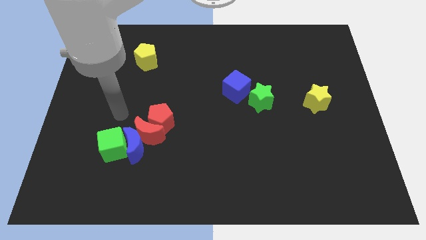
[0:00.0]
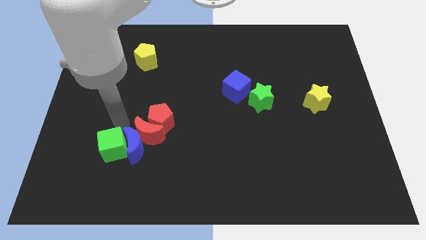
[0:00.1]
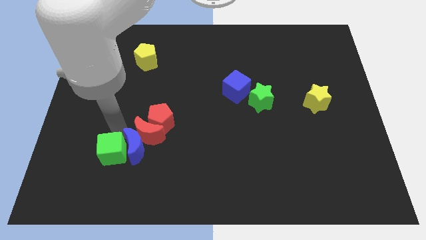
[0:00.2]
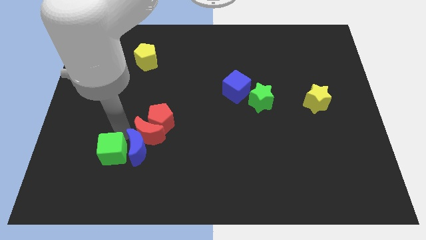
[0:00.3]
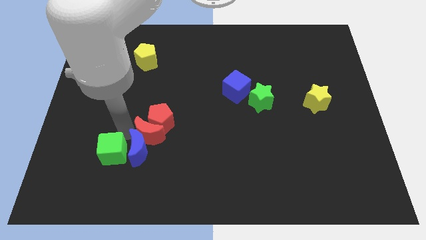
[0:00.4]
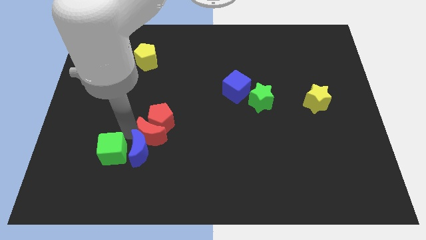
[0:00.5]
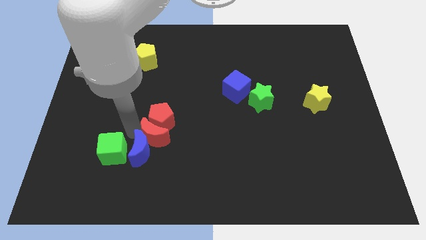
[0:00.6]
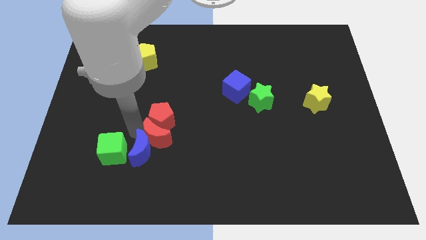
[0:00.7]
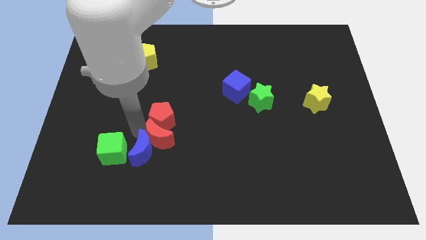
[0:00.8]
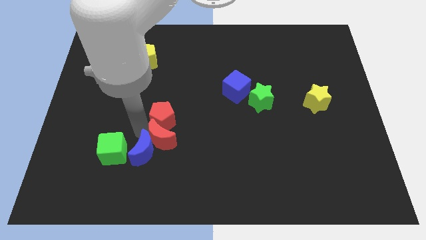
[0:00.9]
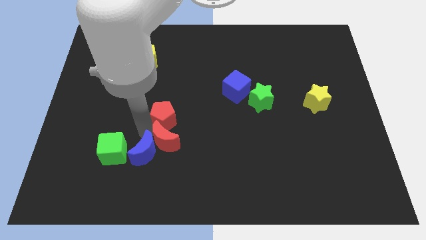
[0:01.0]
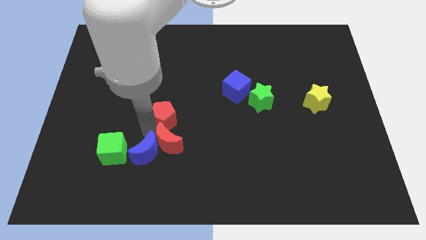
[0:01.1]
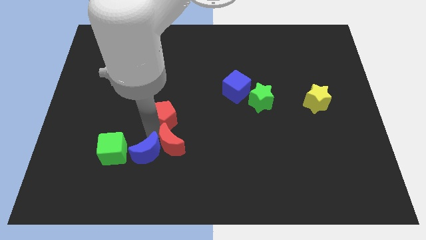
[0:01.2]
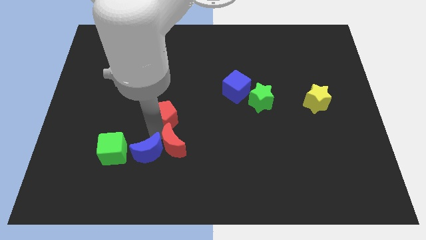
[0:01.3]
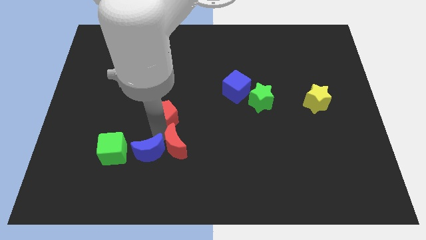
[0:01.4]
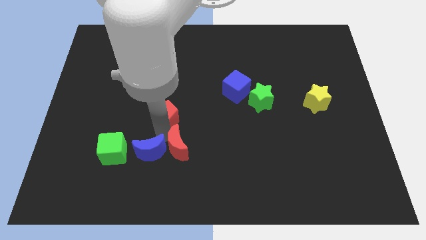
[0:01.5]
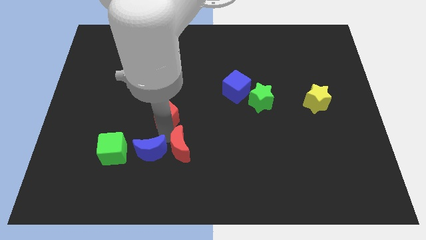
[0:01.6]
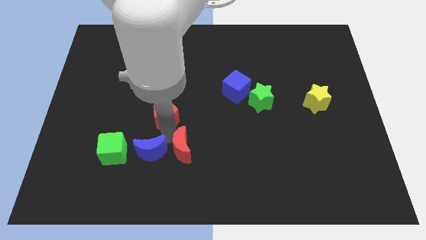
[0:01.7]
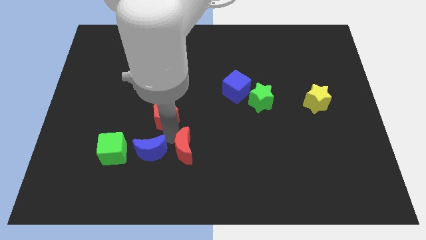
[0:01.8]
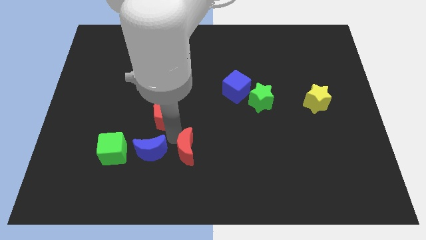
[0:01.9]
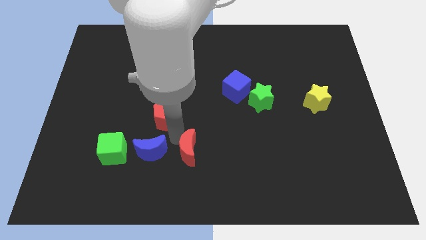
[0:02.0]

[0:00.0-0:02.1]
separate the red moon from the blue moon, red pentagon, and green cube

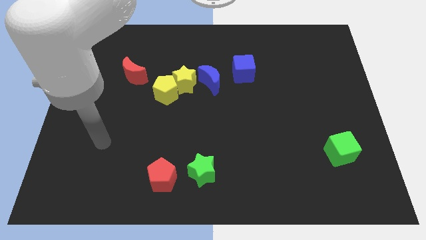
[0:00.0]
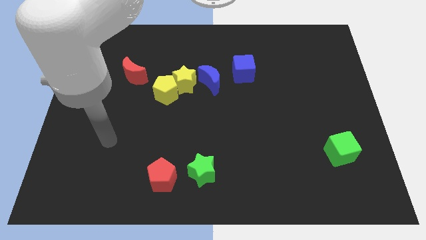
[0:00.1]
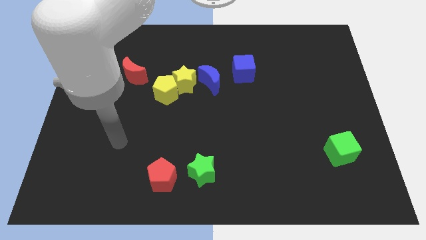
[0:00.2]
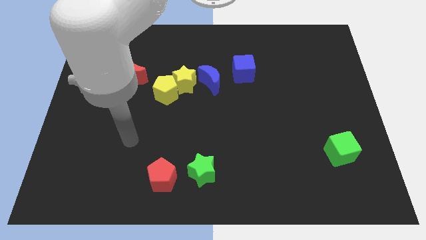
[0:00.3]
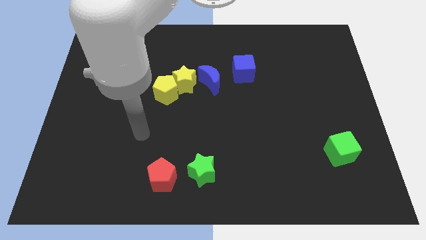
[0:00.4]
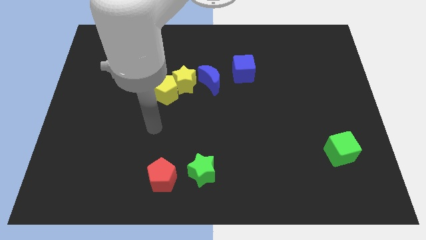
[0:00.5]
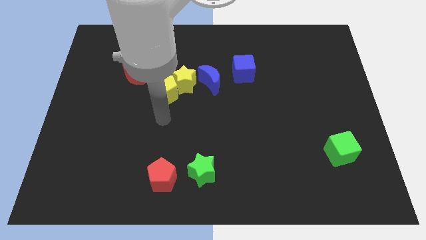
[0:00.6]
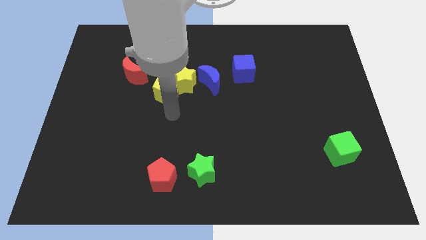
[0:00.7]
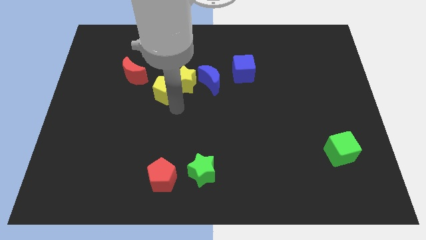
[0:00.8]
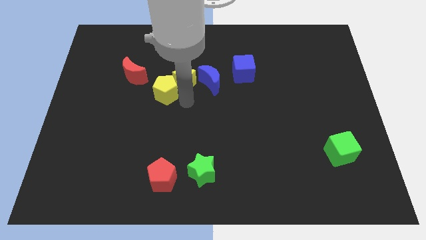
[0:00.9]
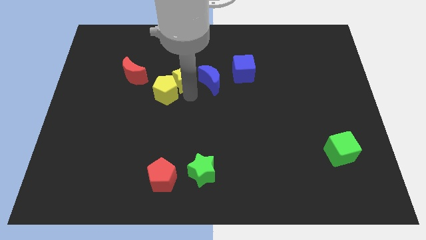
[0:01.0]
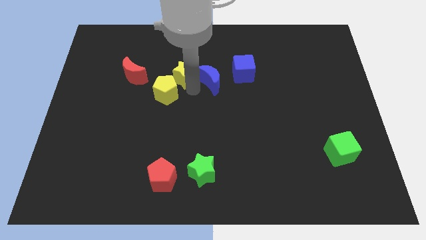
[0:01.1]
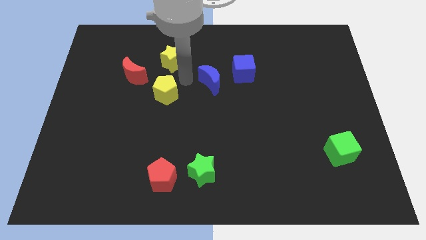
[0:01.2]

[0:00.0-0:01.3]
move the yellow pentagon away from the yellow star

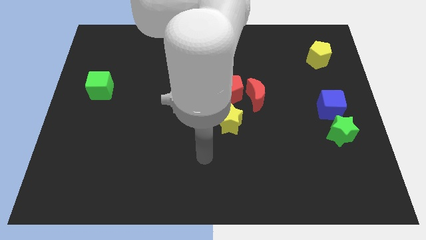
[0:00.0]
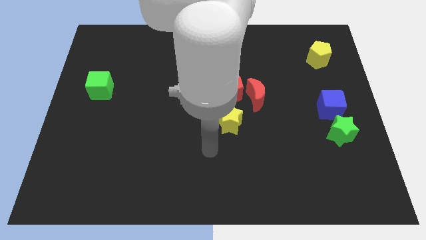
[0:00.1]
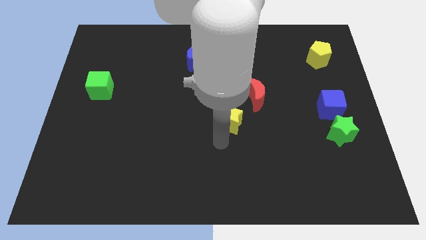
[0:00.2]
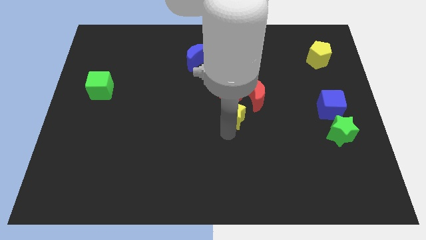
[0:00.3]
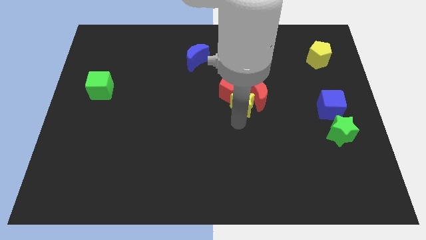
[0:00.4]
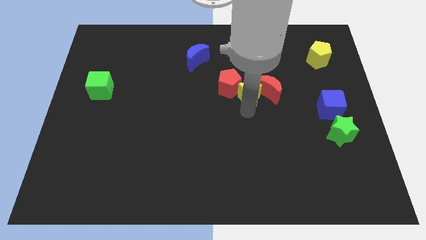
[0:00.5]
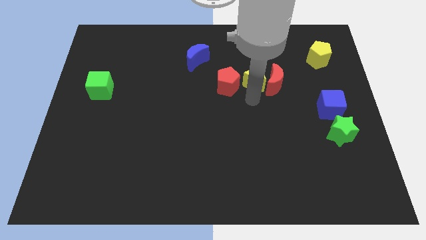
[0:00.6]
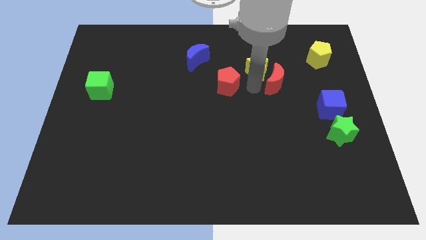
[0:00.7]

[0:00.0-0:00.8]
move the red pentagon away from the red moon and yellow star

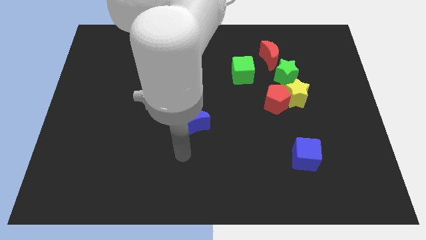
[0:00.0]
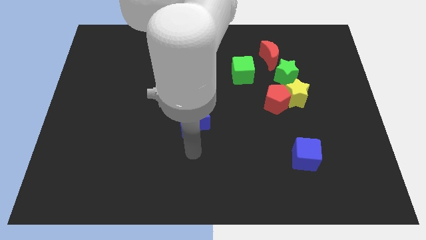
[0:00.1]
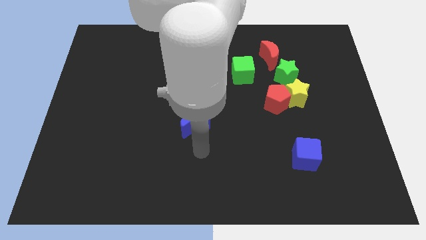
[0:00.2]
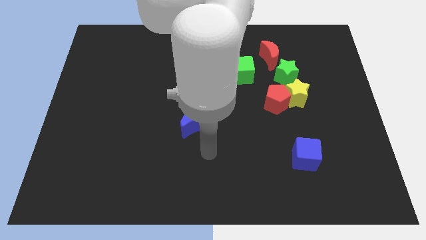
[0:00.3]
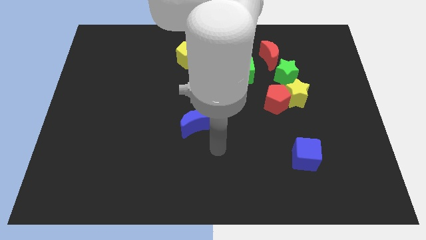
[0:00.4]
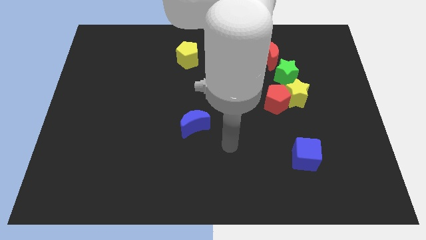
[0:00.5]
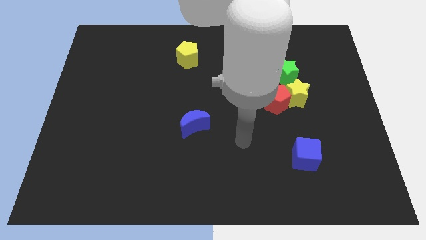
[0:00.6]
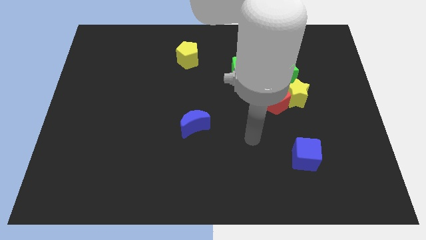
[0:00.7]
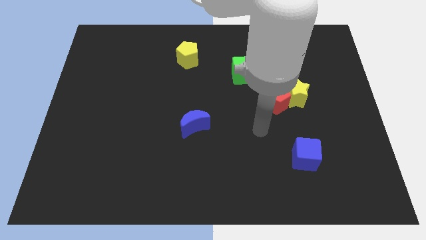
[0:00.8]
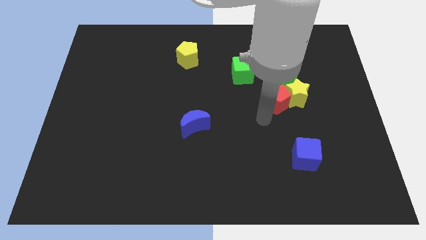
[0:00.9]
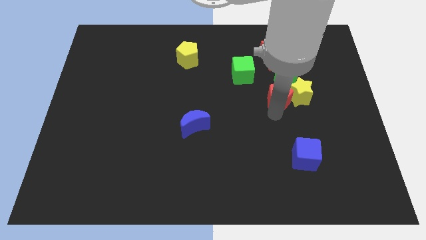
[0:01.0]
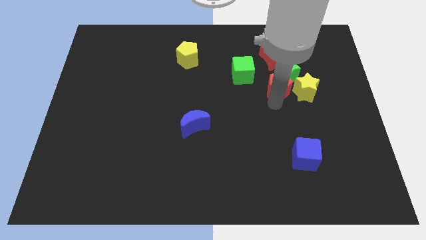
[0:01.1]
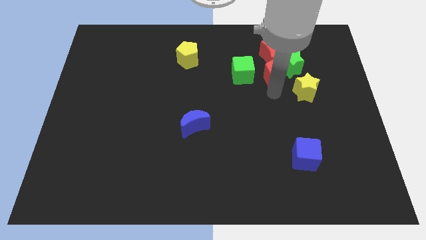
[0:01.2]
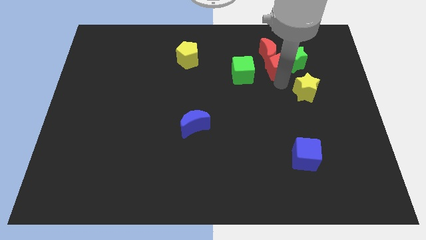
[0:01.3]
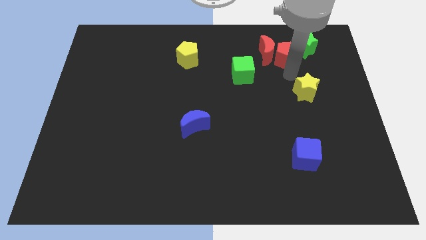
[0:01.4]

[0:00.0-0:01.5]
move the yellow star away from the red pentagon and green star

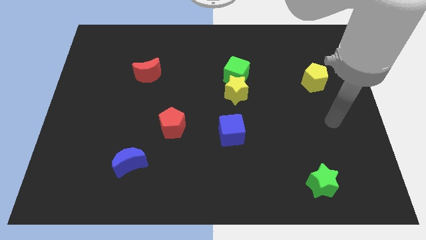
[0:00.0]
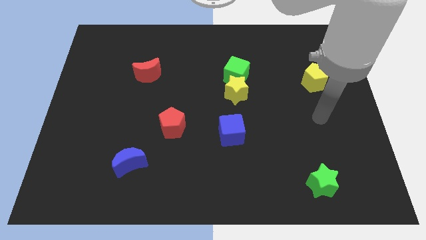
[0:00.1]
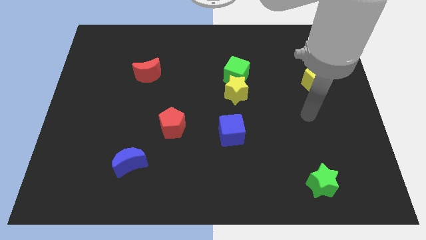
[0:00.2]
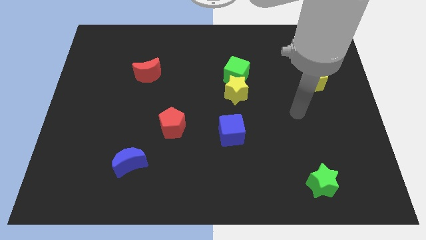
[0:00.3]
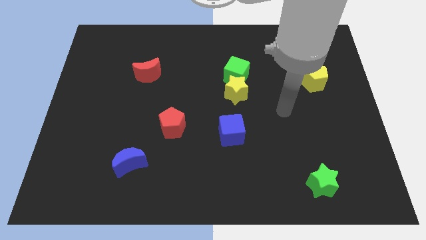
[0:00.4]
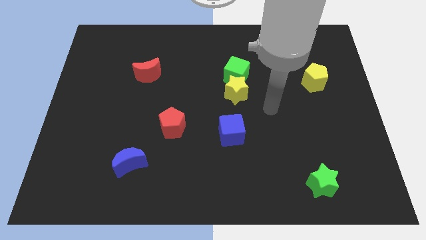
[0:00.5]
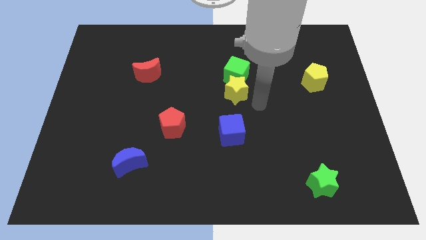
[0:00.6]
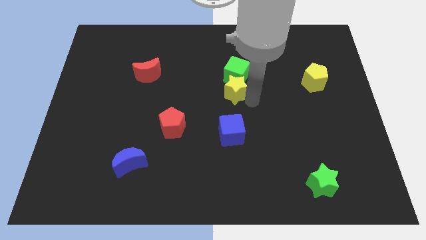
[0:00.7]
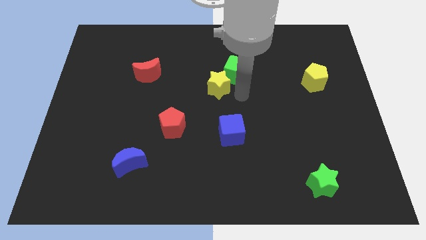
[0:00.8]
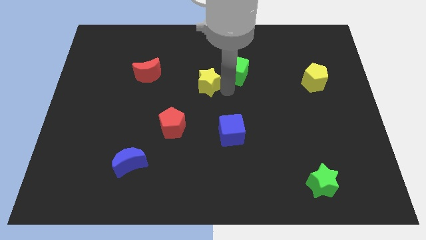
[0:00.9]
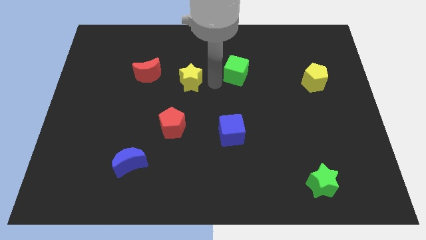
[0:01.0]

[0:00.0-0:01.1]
pull the green cube apart from the yellow star

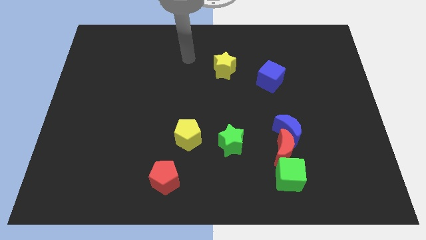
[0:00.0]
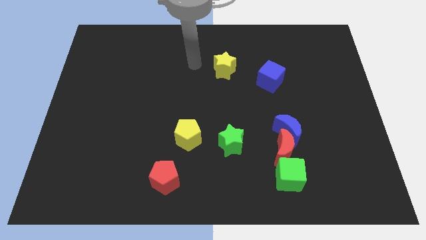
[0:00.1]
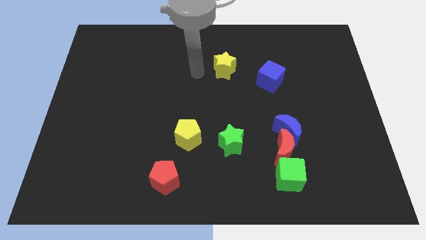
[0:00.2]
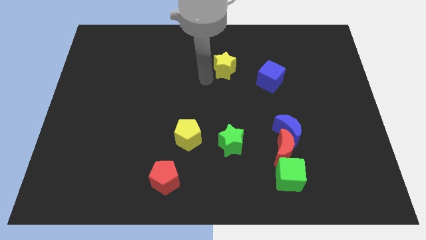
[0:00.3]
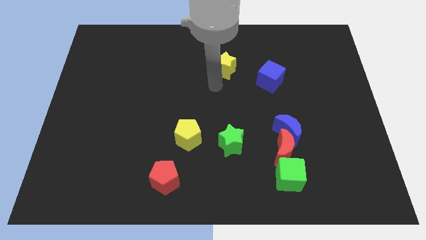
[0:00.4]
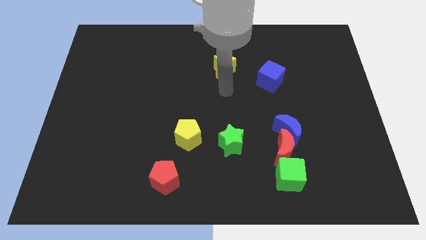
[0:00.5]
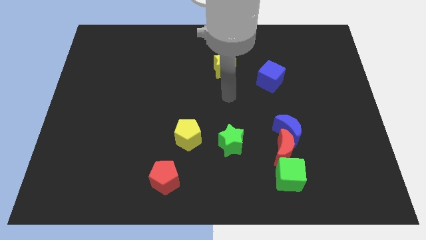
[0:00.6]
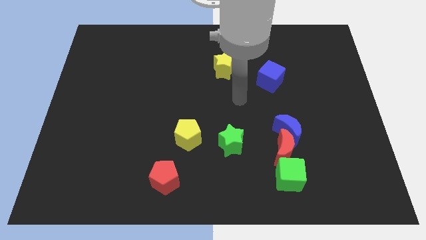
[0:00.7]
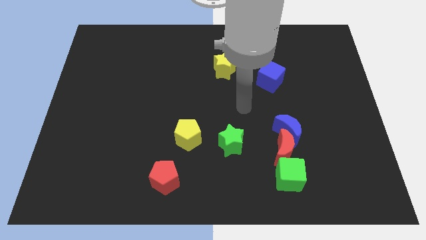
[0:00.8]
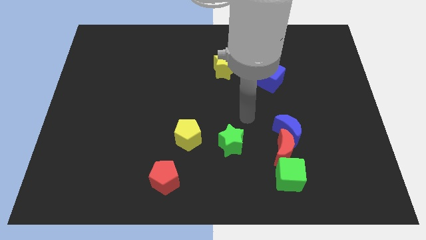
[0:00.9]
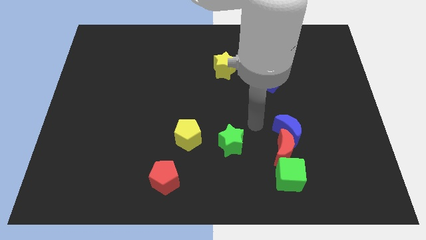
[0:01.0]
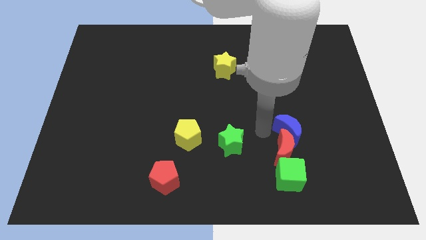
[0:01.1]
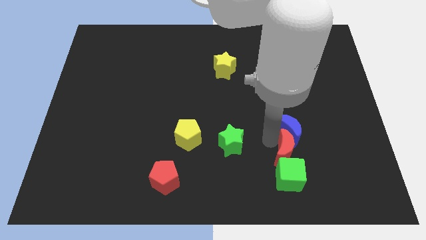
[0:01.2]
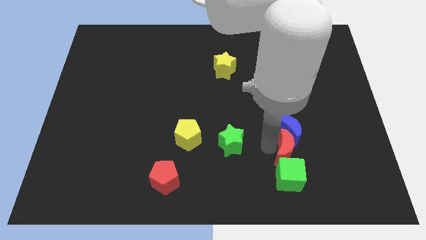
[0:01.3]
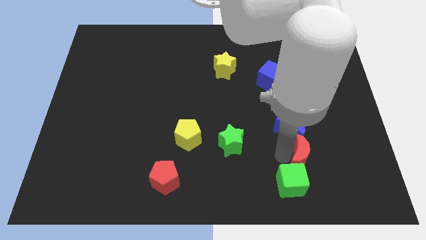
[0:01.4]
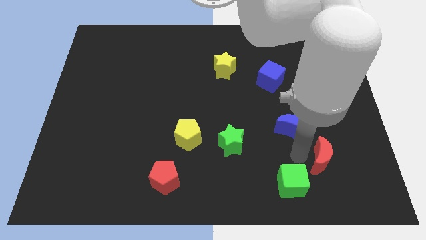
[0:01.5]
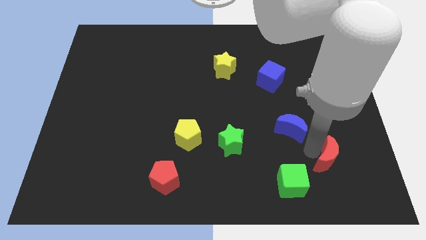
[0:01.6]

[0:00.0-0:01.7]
separate the blue moon from the red moon

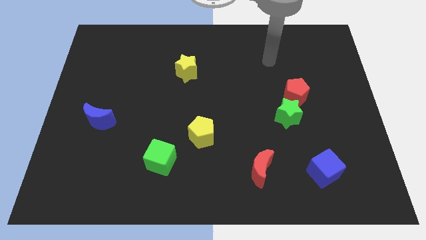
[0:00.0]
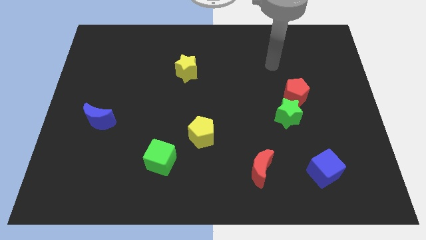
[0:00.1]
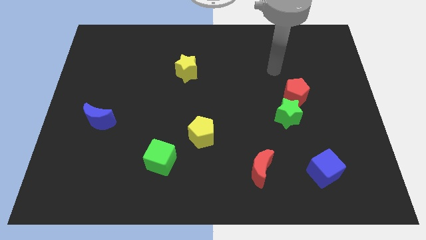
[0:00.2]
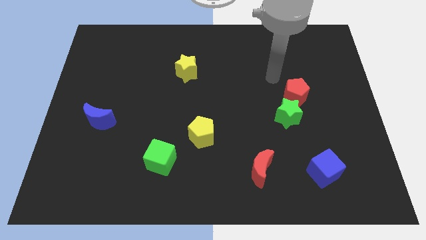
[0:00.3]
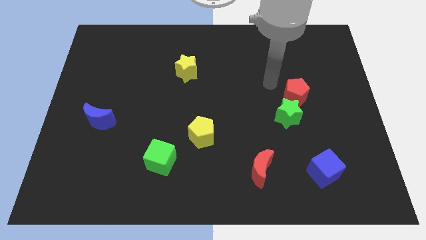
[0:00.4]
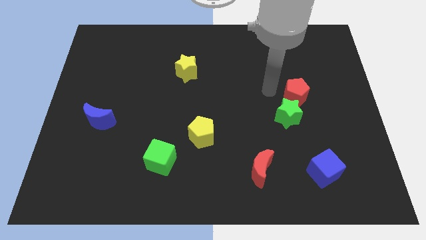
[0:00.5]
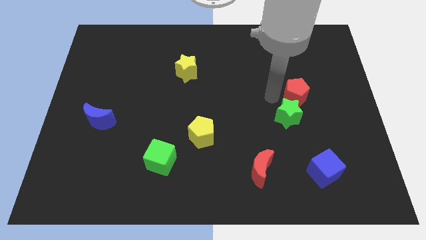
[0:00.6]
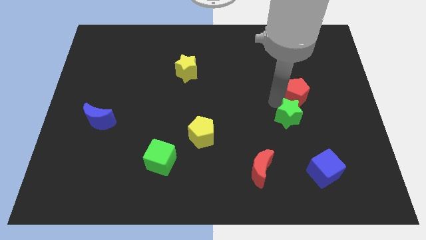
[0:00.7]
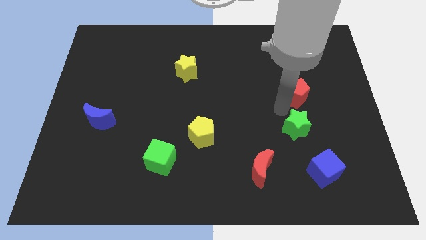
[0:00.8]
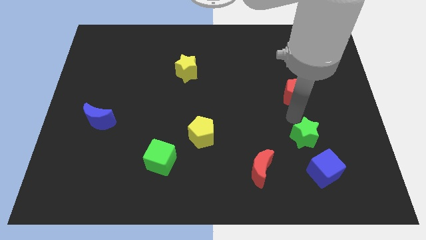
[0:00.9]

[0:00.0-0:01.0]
pull the red pentagon apart from the green star
